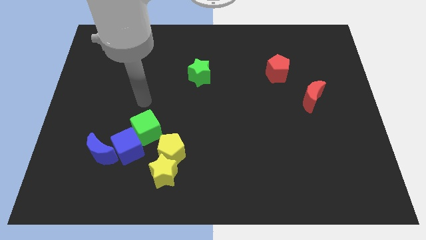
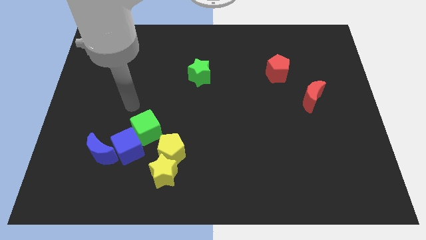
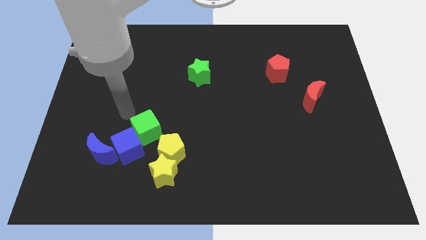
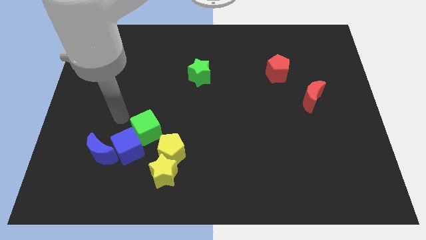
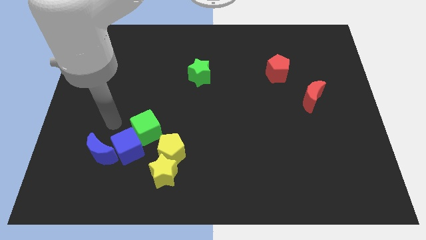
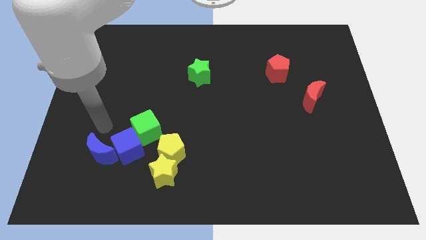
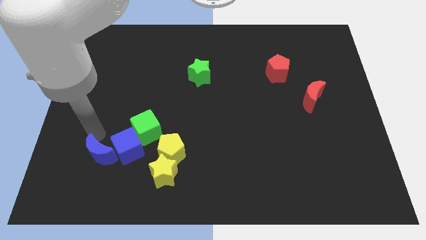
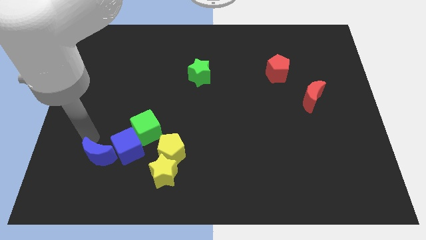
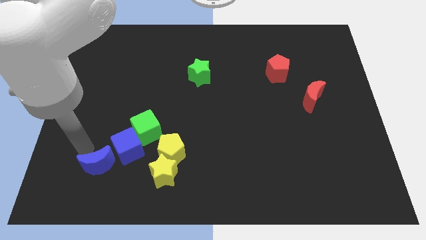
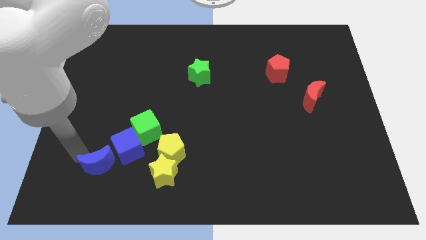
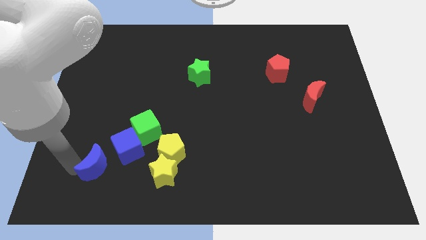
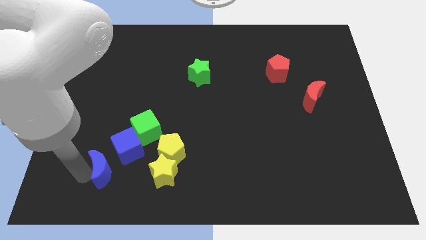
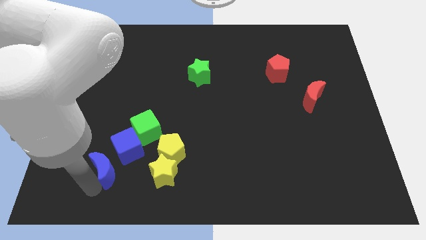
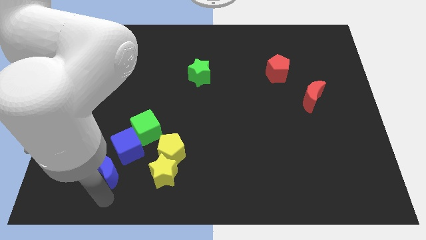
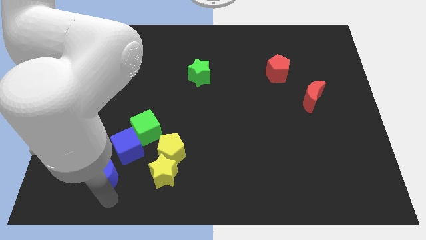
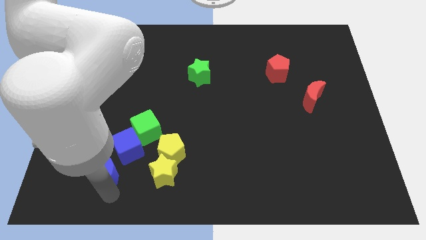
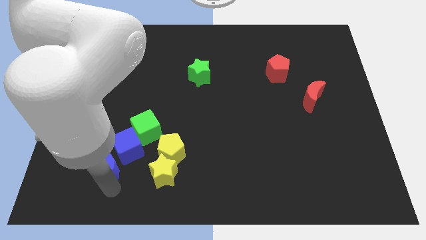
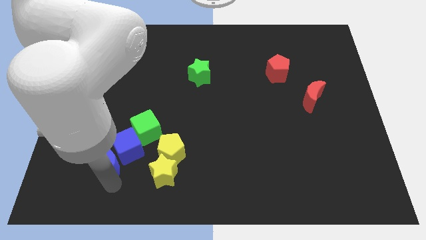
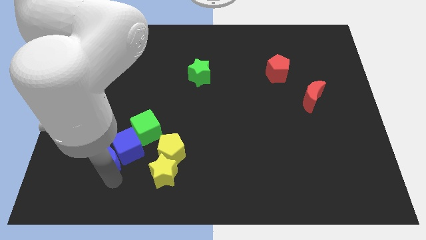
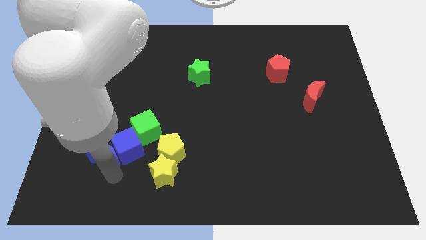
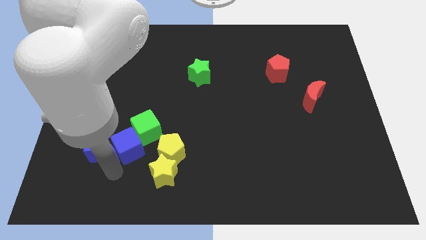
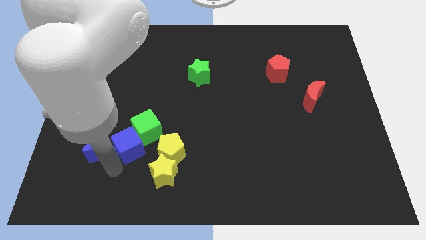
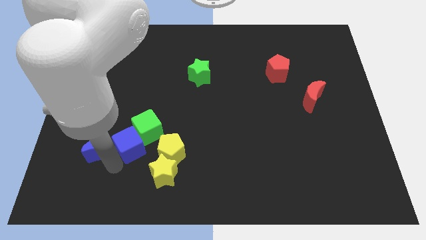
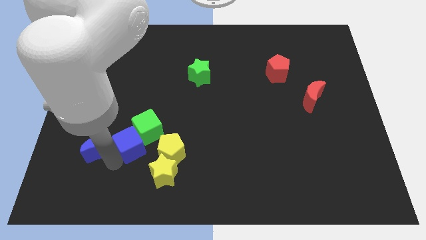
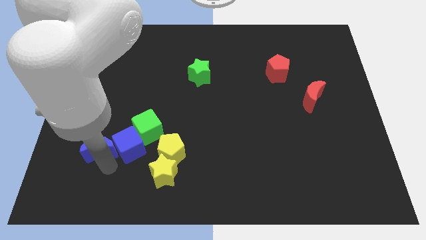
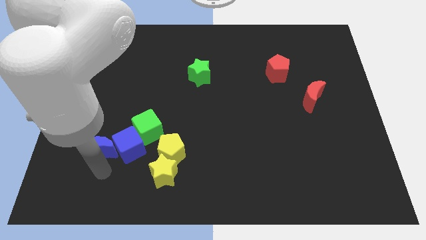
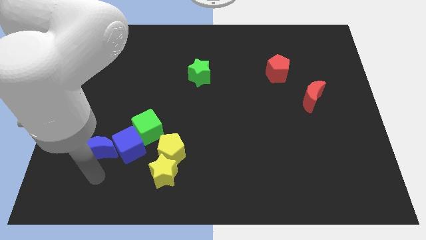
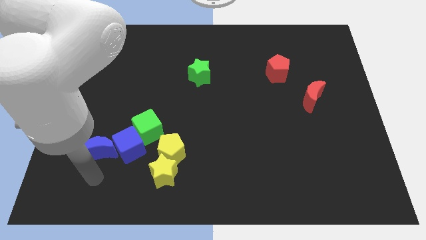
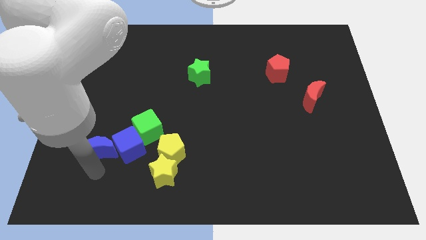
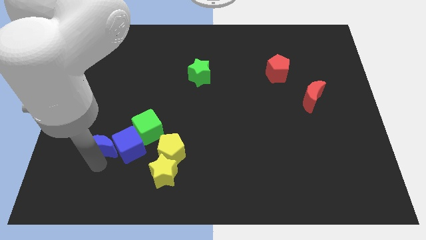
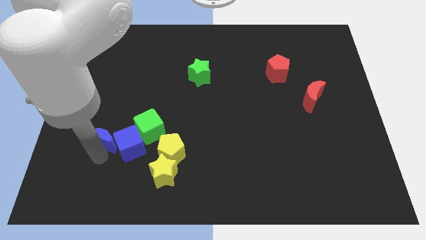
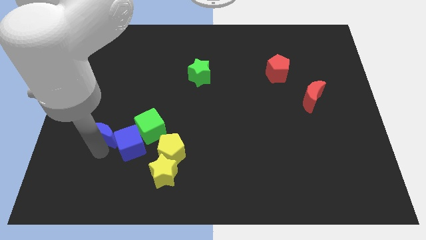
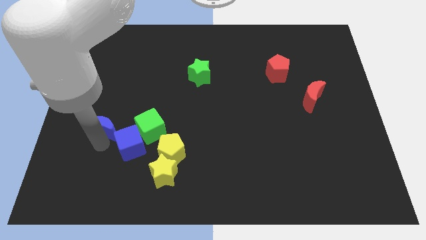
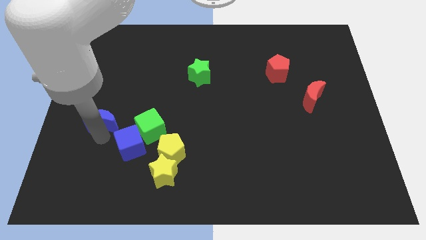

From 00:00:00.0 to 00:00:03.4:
push the blue moon a little bit upwards

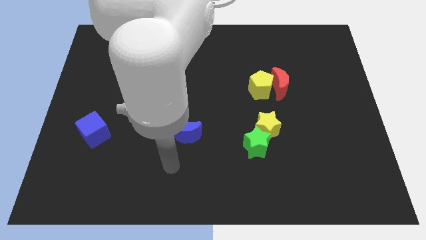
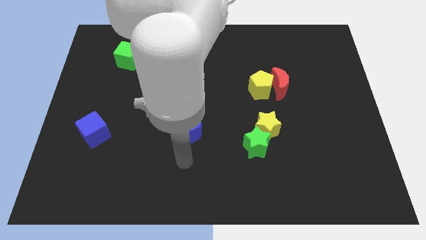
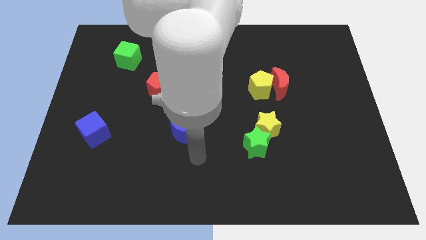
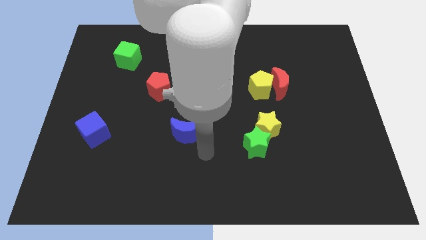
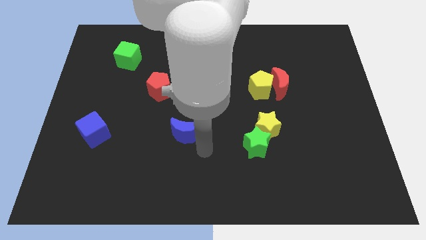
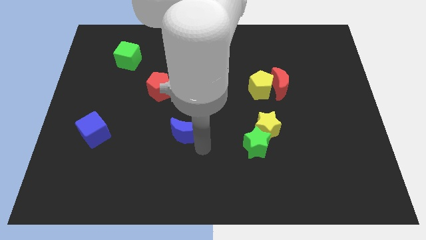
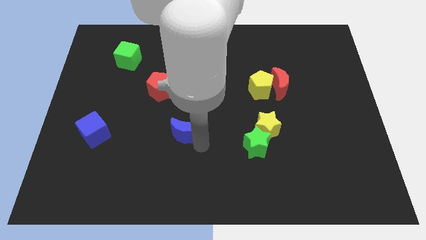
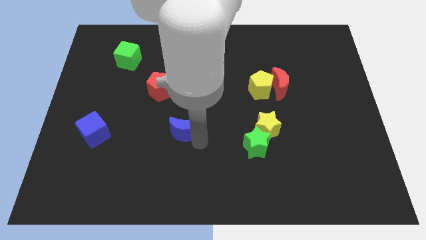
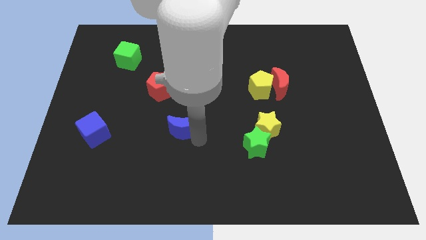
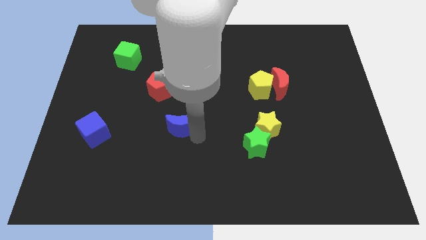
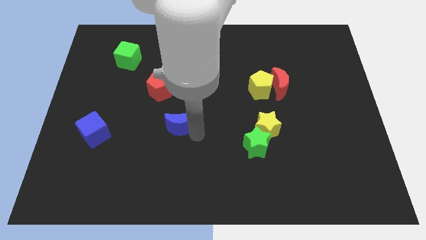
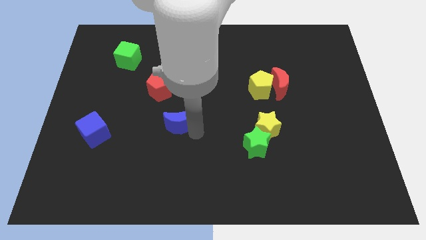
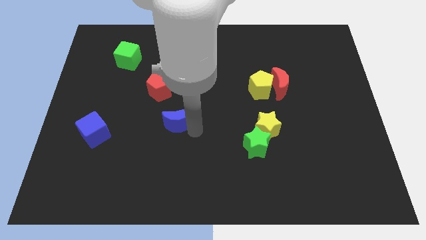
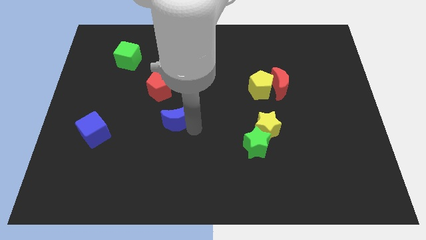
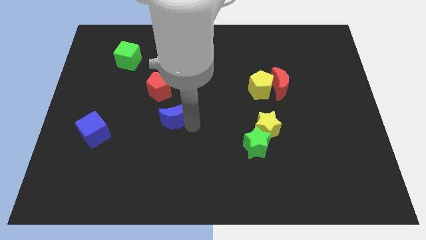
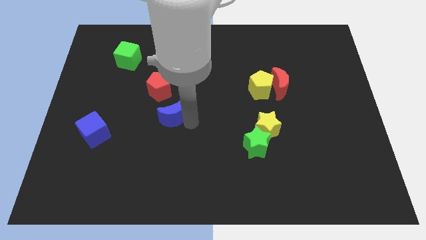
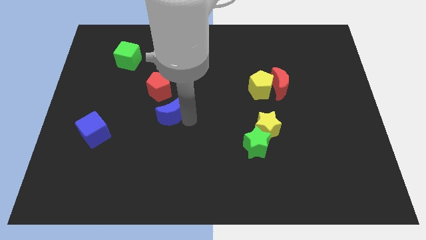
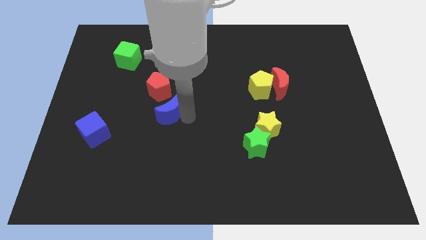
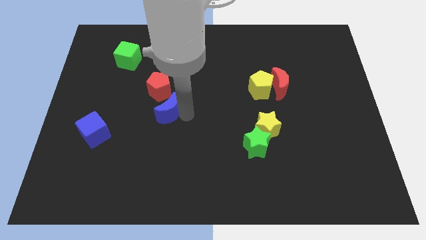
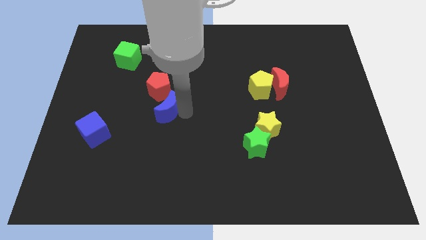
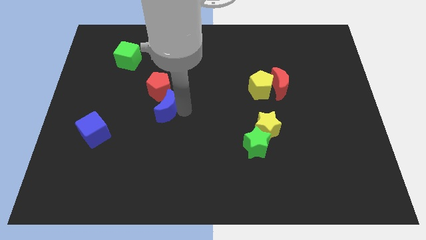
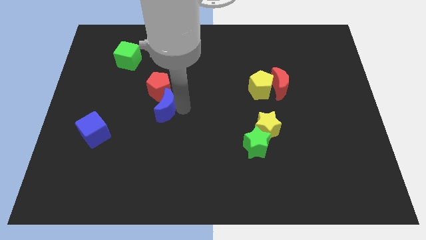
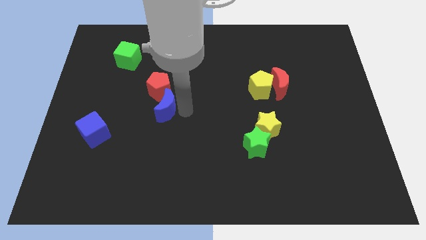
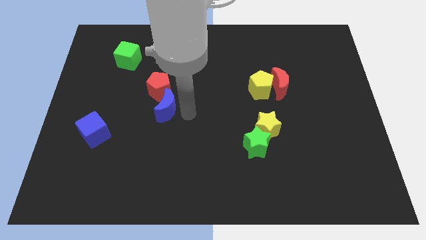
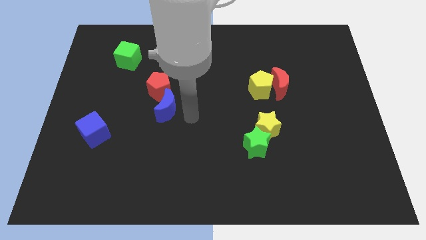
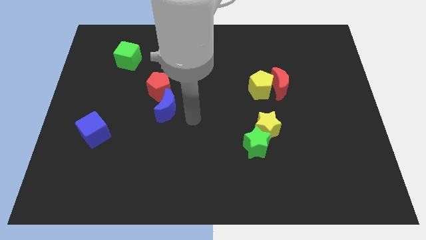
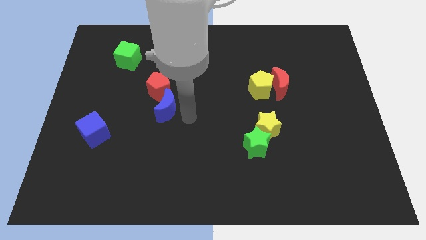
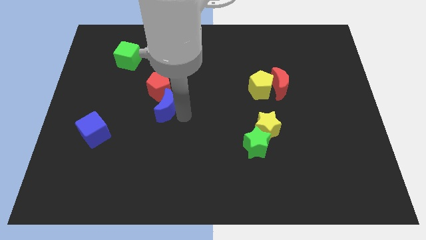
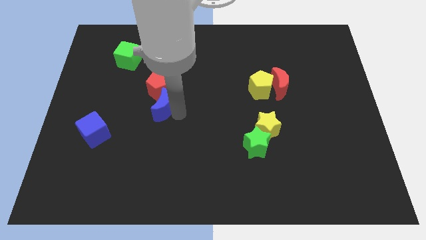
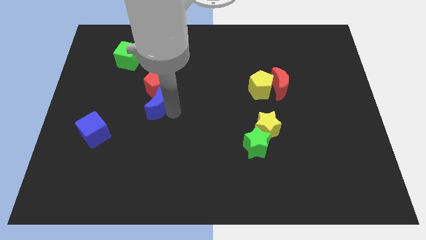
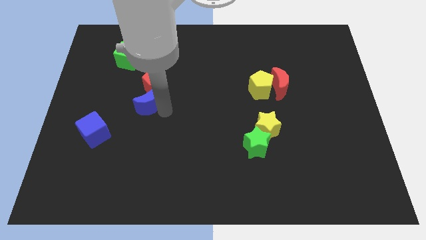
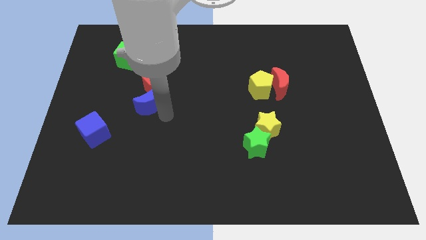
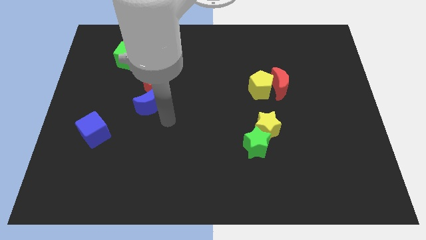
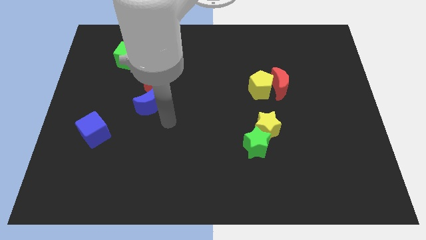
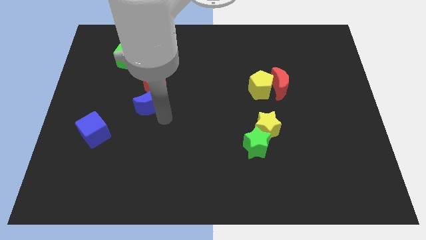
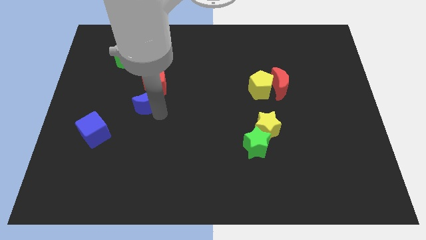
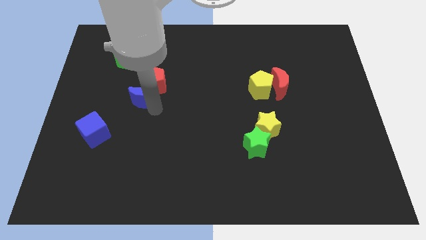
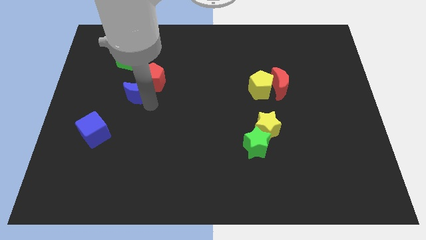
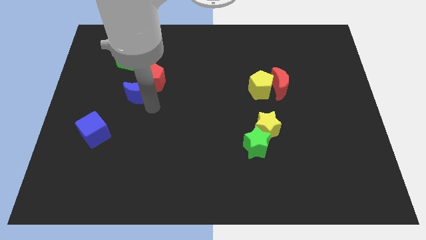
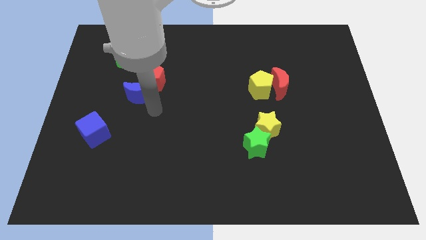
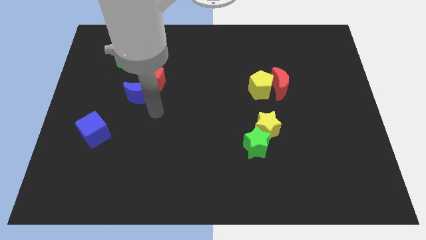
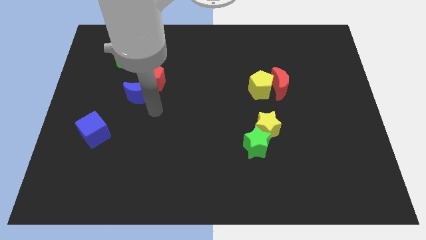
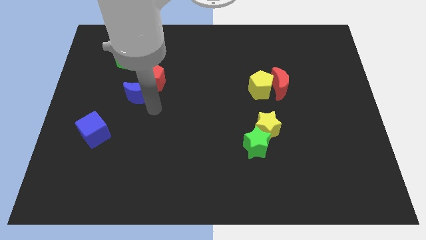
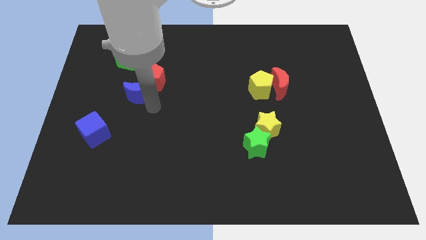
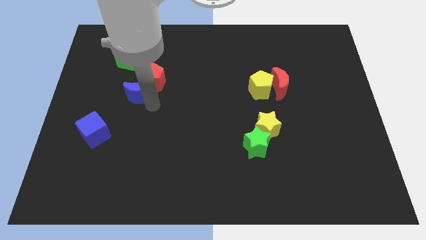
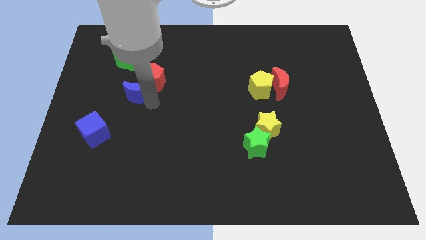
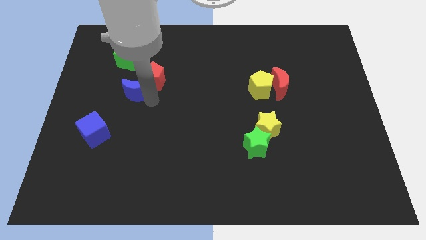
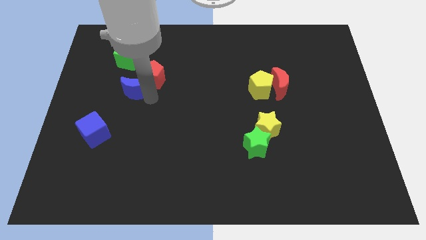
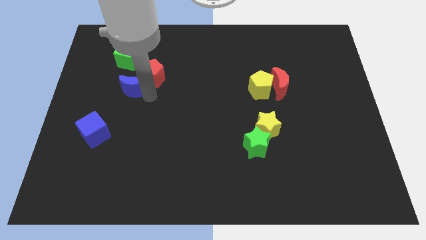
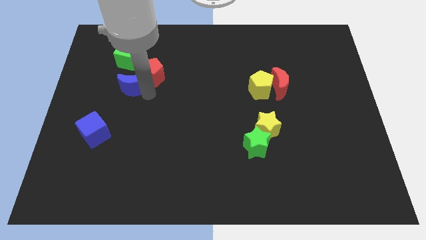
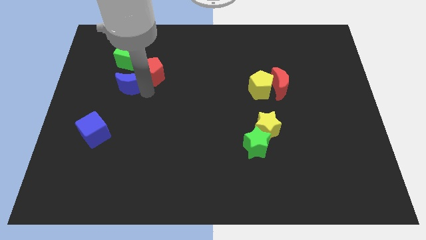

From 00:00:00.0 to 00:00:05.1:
move the blue moon up and left diagonally
